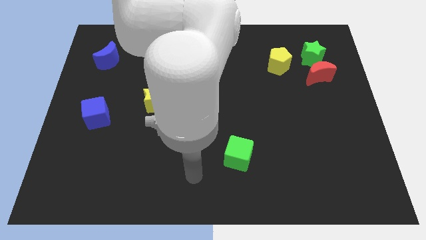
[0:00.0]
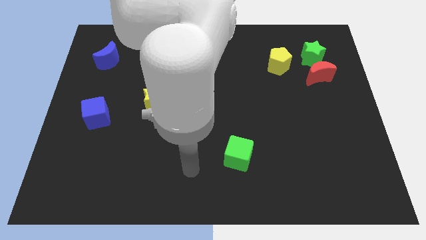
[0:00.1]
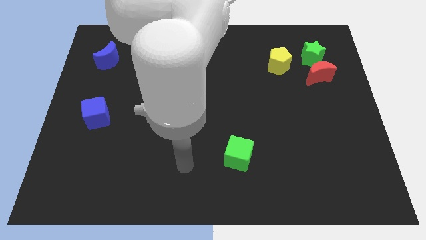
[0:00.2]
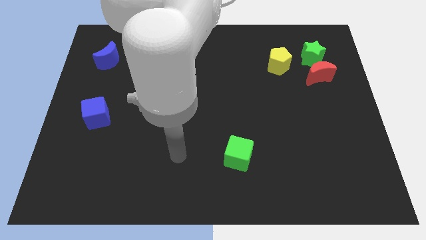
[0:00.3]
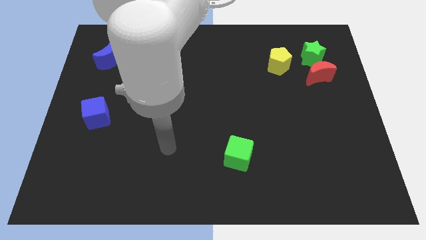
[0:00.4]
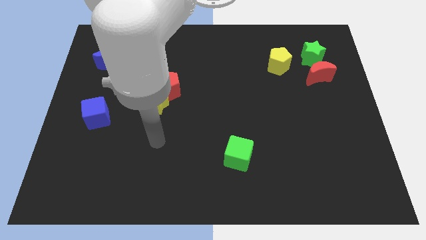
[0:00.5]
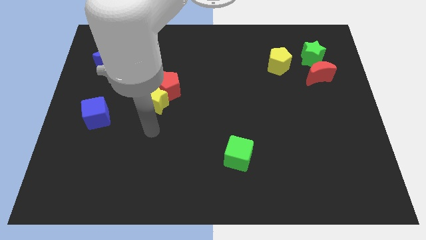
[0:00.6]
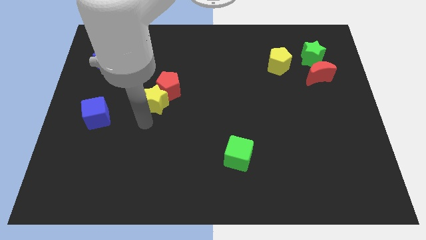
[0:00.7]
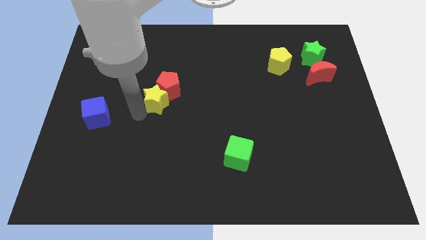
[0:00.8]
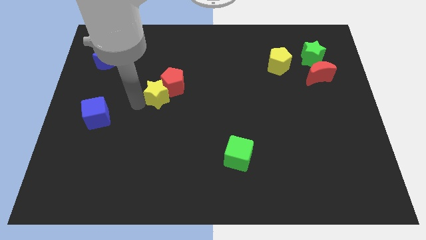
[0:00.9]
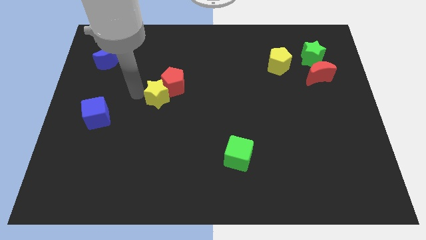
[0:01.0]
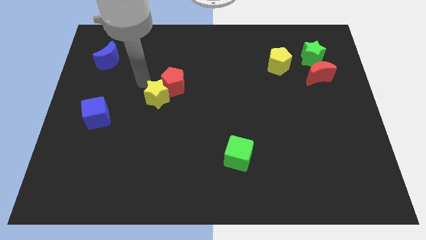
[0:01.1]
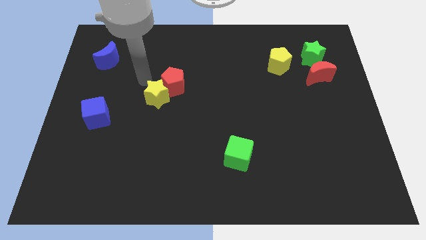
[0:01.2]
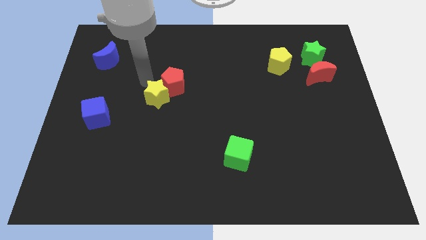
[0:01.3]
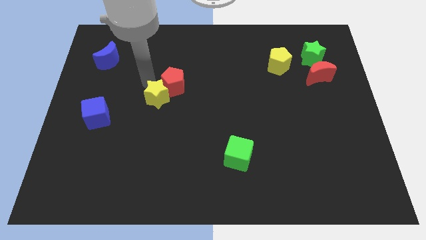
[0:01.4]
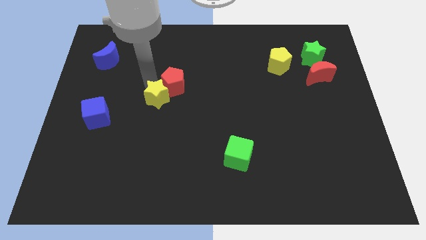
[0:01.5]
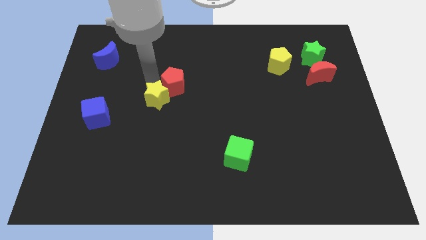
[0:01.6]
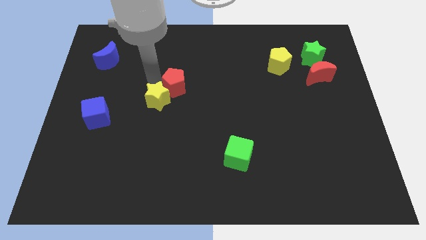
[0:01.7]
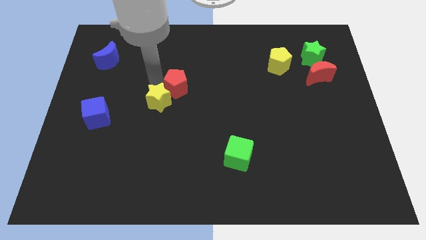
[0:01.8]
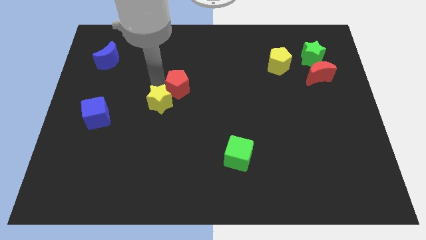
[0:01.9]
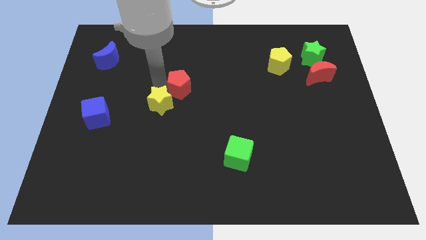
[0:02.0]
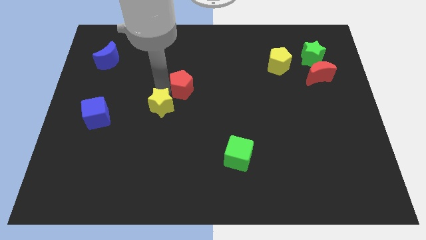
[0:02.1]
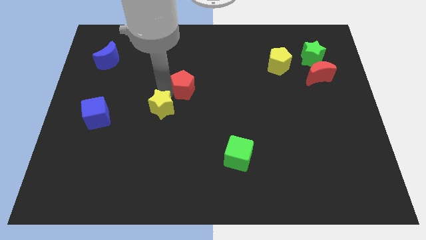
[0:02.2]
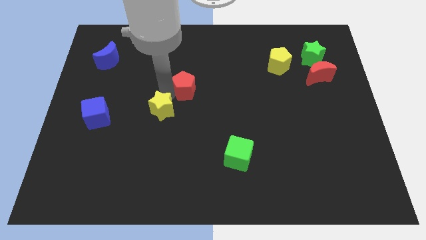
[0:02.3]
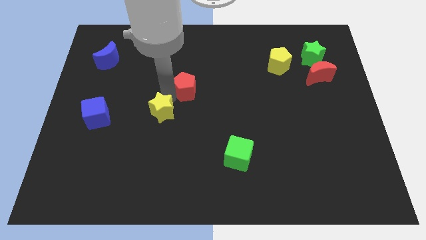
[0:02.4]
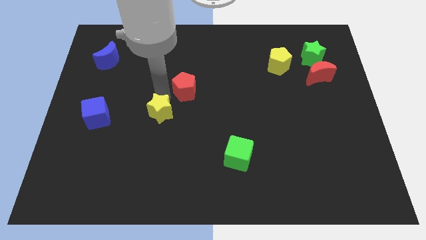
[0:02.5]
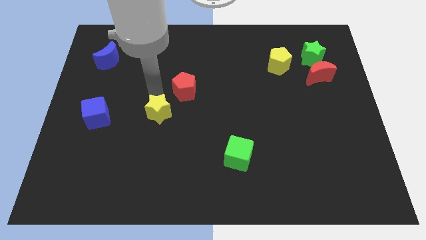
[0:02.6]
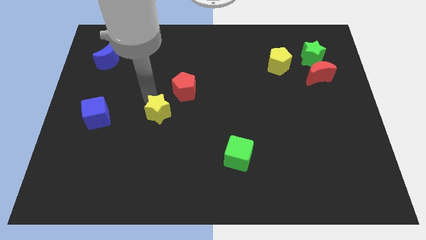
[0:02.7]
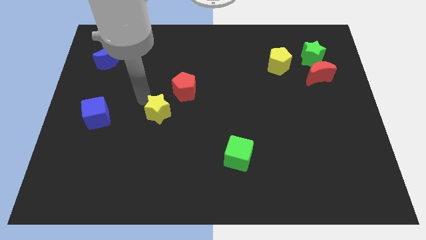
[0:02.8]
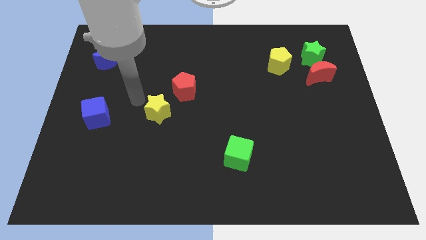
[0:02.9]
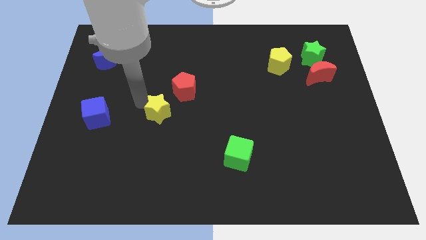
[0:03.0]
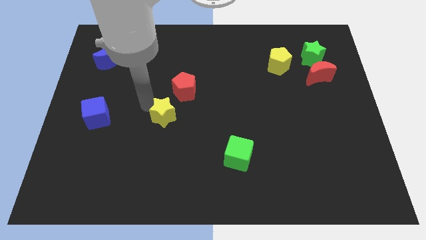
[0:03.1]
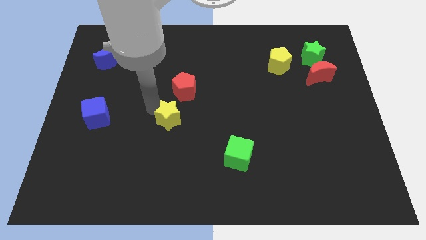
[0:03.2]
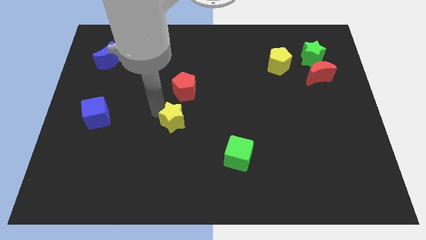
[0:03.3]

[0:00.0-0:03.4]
move the yellow star diagonally down and right a little

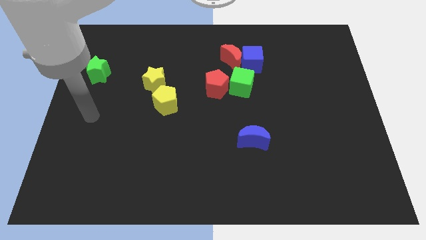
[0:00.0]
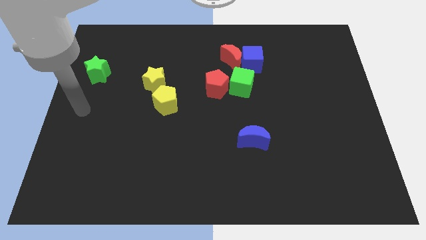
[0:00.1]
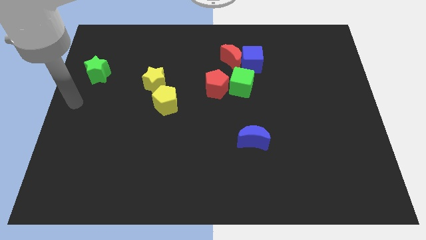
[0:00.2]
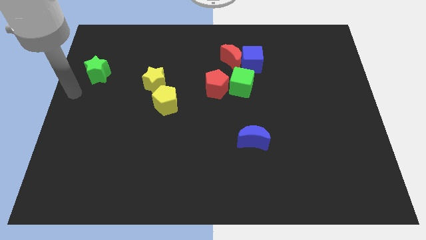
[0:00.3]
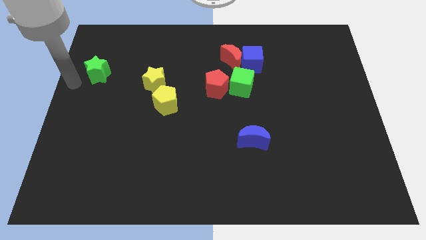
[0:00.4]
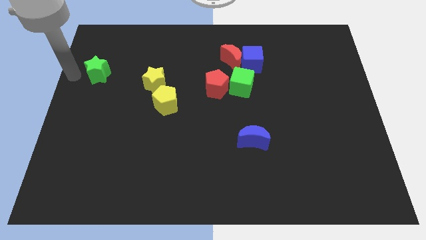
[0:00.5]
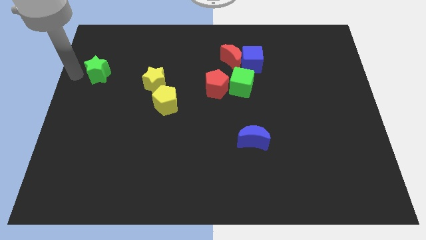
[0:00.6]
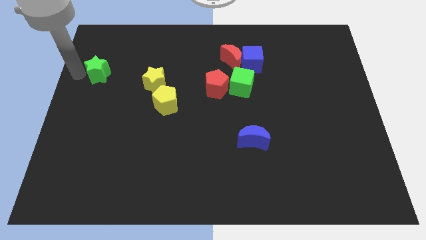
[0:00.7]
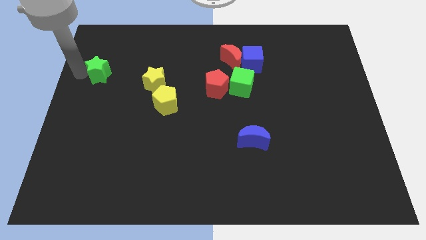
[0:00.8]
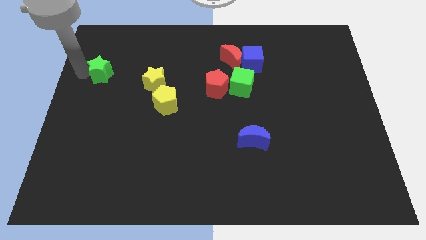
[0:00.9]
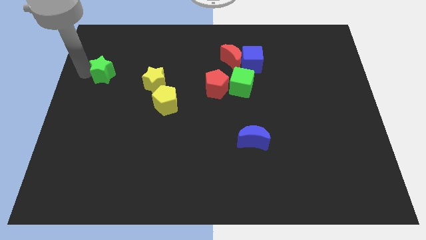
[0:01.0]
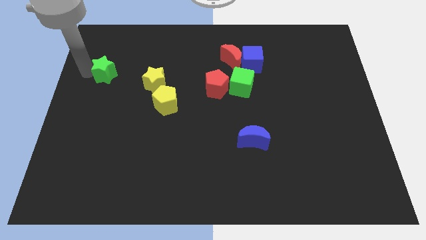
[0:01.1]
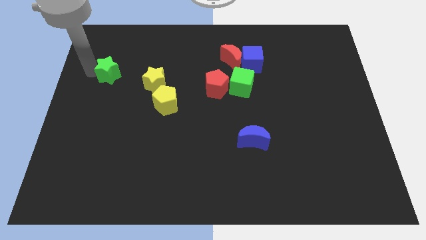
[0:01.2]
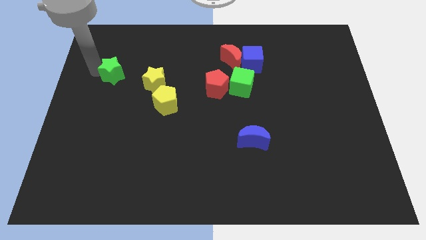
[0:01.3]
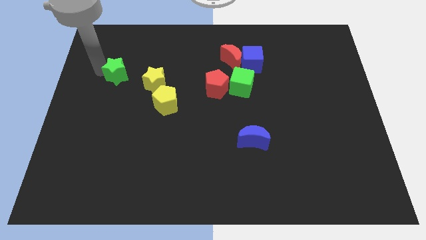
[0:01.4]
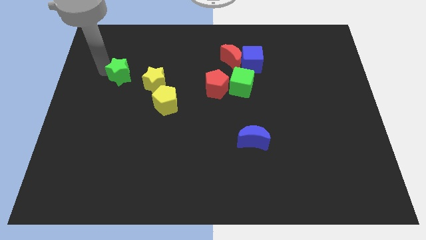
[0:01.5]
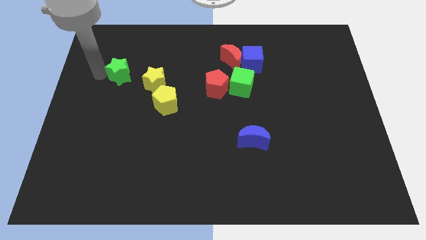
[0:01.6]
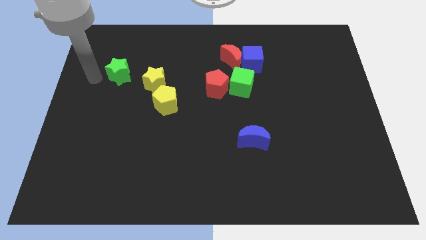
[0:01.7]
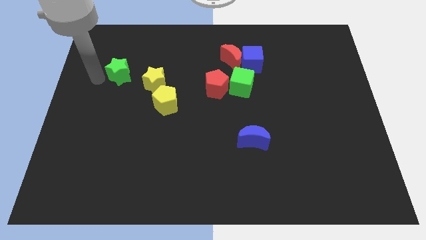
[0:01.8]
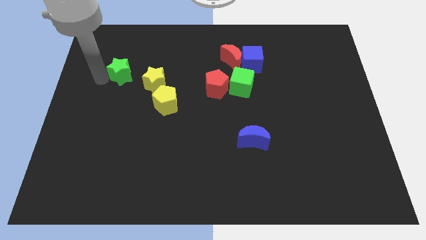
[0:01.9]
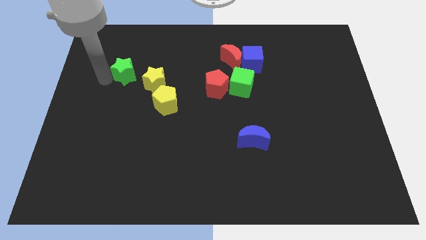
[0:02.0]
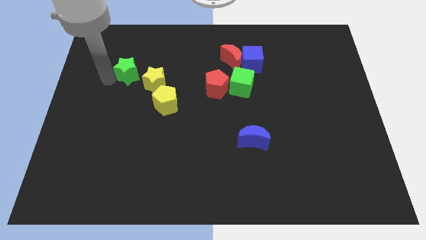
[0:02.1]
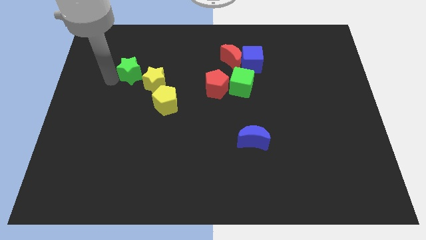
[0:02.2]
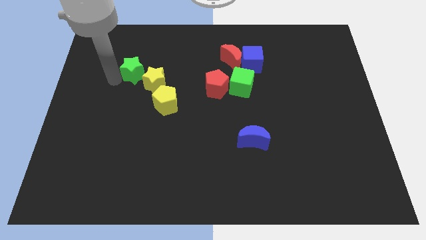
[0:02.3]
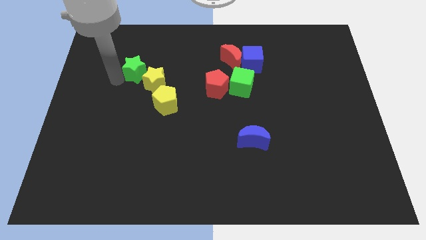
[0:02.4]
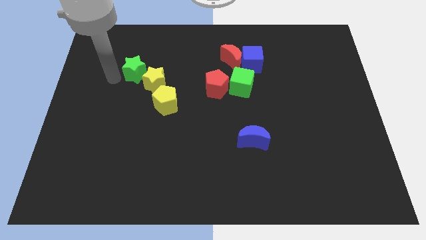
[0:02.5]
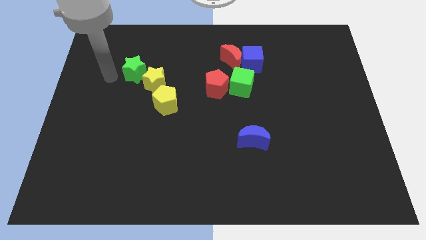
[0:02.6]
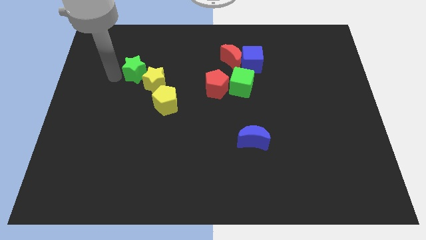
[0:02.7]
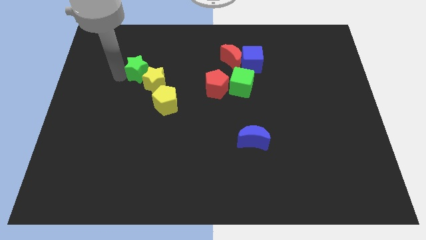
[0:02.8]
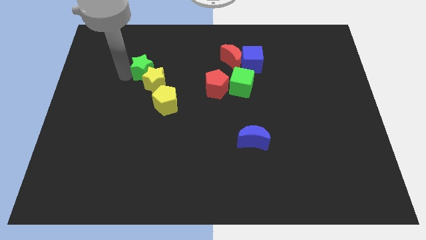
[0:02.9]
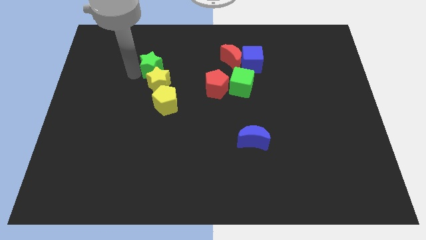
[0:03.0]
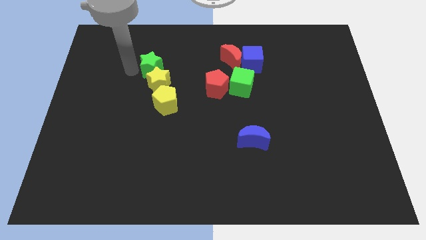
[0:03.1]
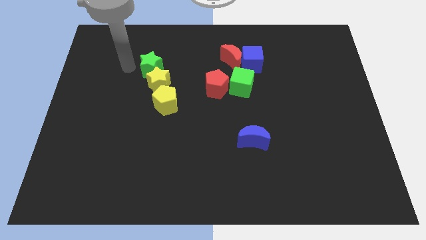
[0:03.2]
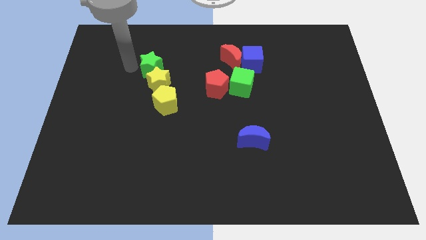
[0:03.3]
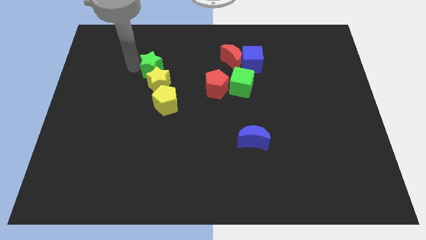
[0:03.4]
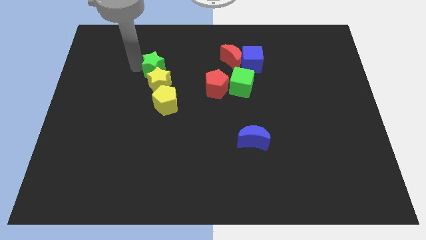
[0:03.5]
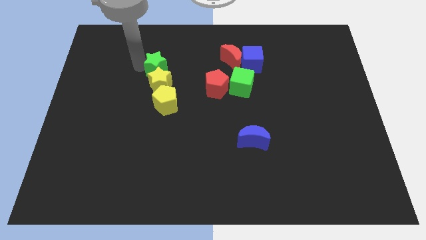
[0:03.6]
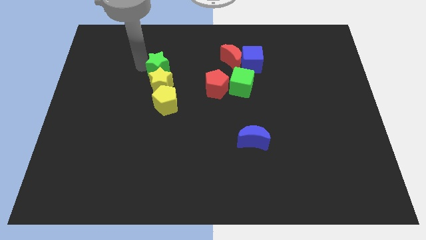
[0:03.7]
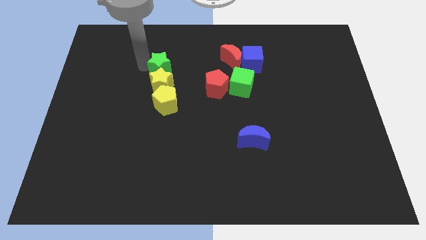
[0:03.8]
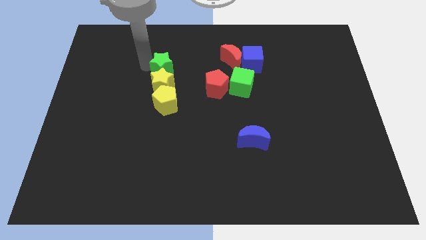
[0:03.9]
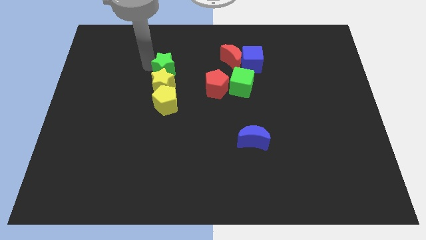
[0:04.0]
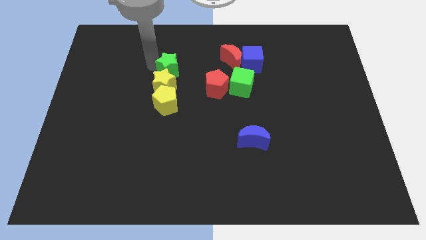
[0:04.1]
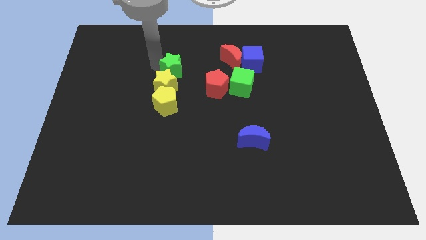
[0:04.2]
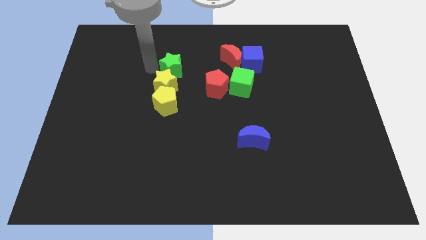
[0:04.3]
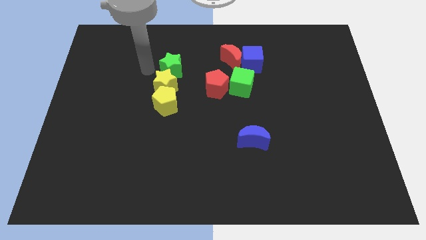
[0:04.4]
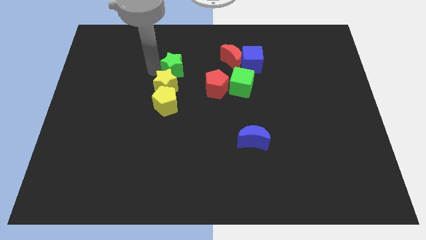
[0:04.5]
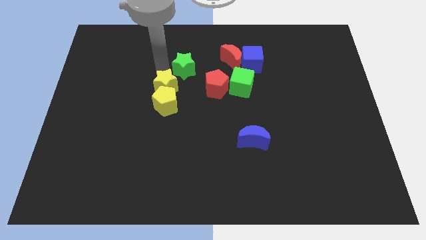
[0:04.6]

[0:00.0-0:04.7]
push the green star right

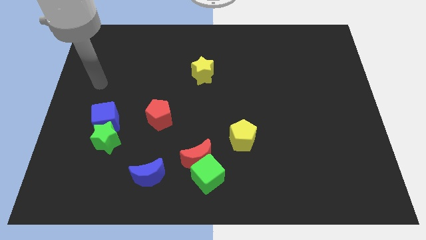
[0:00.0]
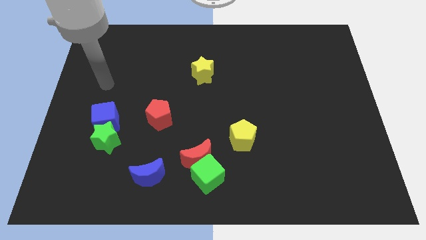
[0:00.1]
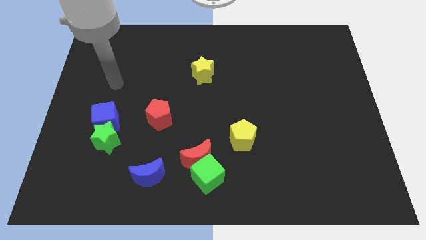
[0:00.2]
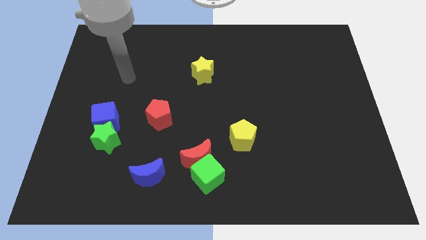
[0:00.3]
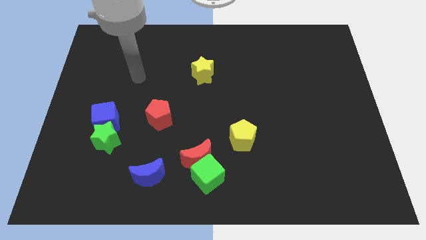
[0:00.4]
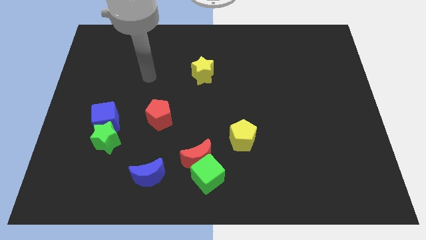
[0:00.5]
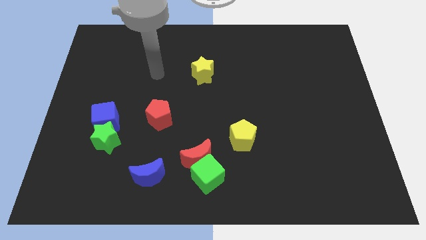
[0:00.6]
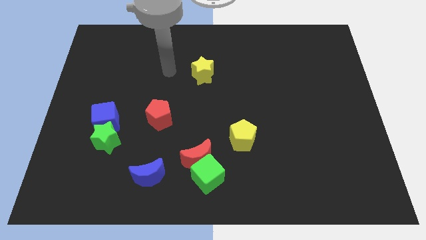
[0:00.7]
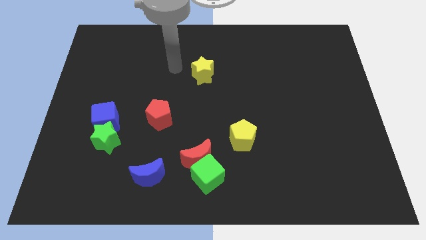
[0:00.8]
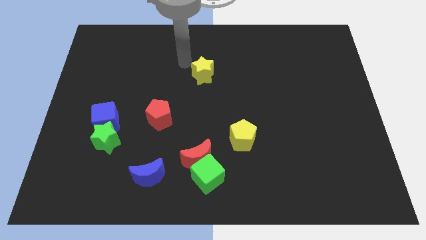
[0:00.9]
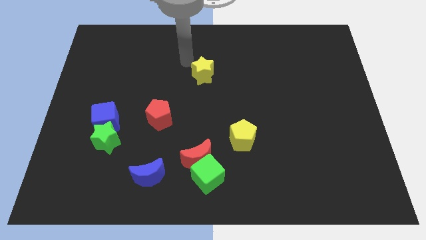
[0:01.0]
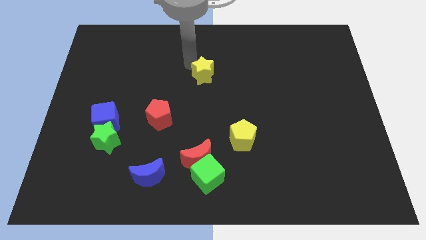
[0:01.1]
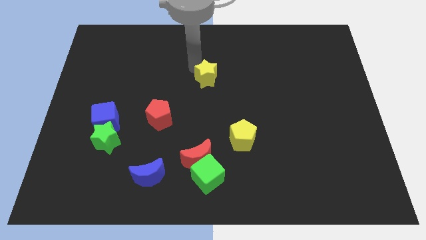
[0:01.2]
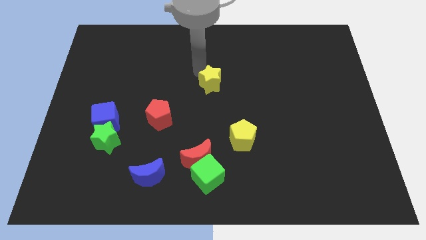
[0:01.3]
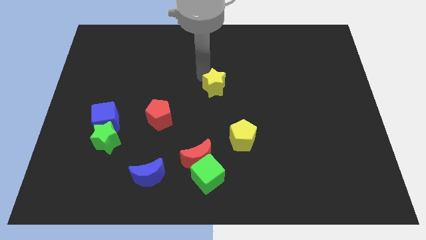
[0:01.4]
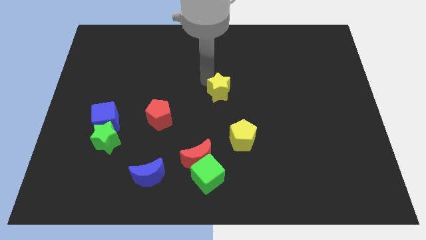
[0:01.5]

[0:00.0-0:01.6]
move the yellow star down and right diagonally somewhat
